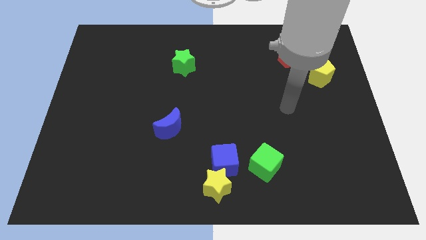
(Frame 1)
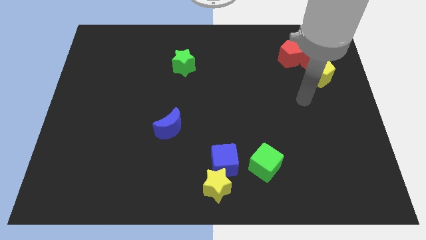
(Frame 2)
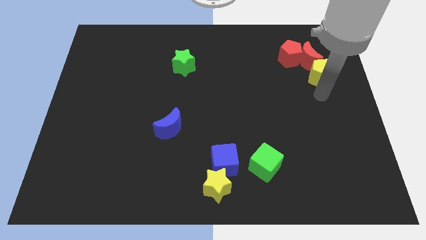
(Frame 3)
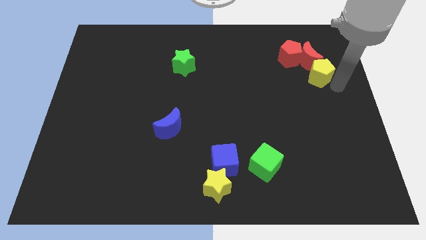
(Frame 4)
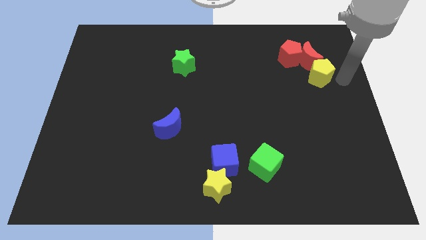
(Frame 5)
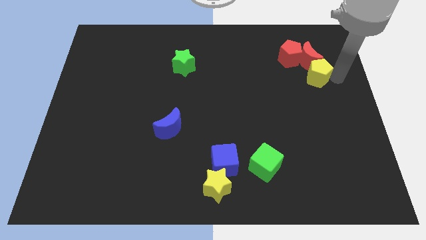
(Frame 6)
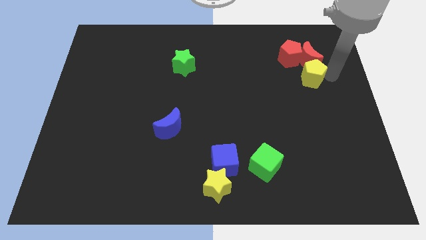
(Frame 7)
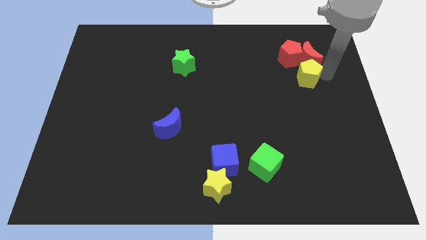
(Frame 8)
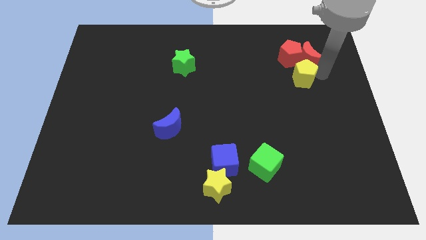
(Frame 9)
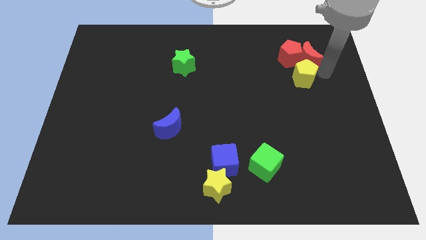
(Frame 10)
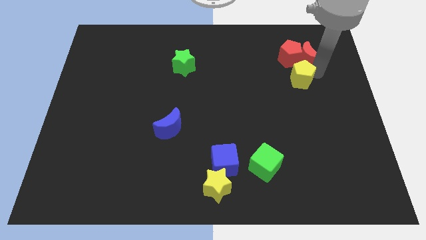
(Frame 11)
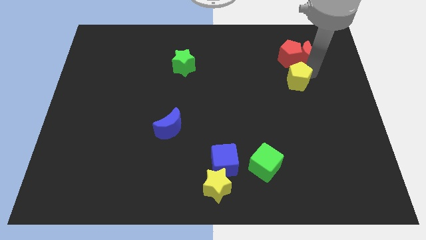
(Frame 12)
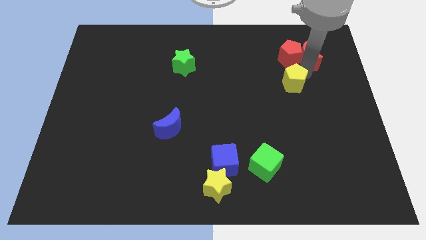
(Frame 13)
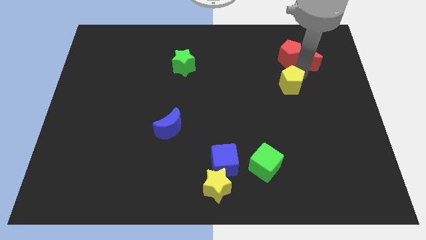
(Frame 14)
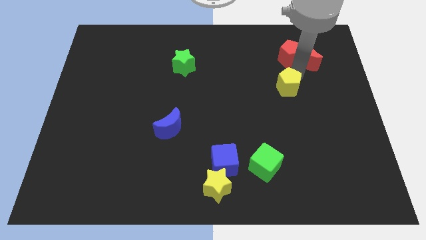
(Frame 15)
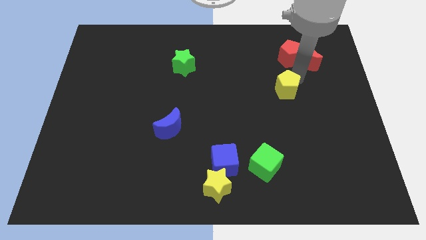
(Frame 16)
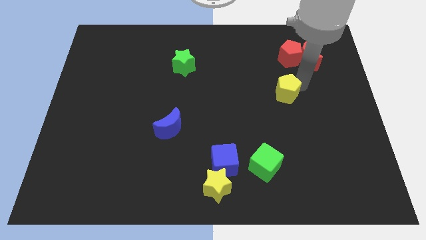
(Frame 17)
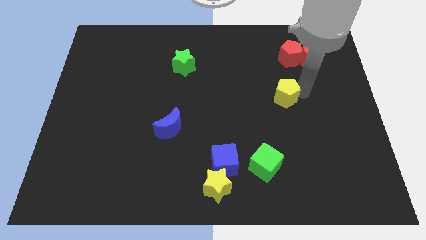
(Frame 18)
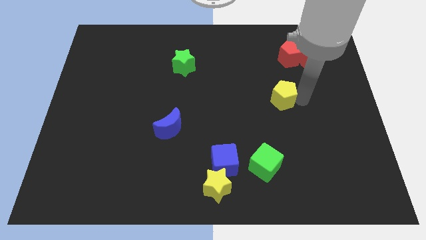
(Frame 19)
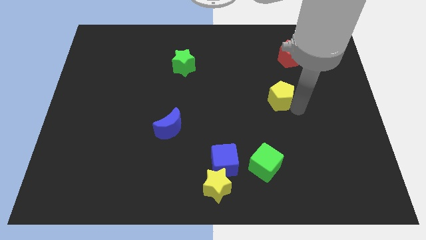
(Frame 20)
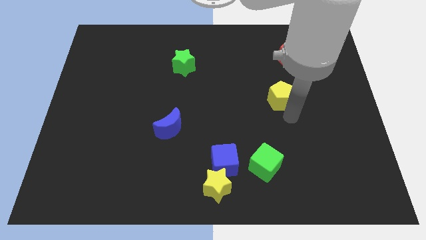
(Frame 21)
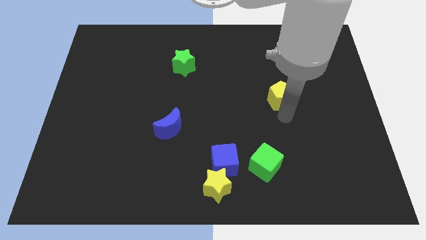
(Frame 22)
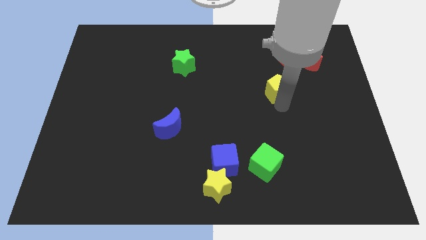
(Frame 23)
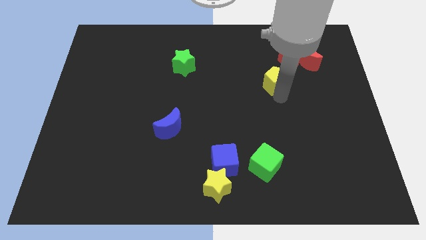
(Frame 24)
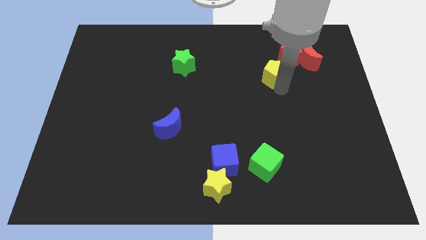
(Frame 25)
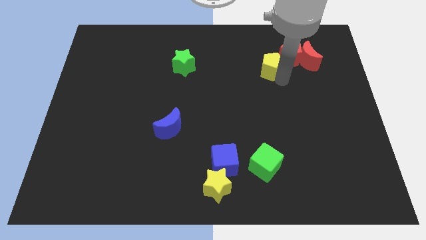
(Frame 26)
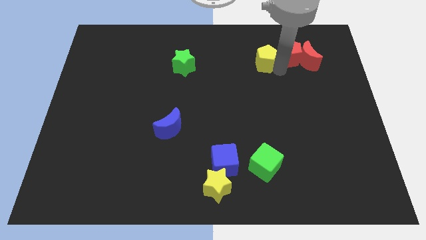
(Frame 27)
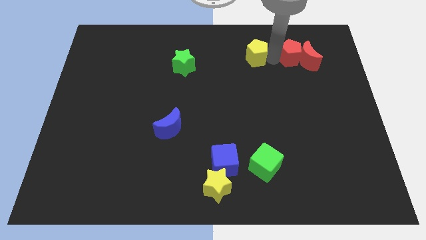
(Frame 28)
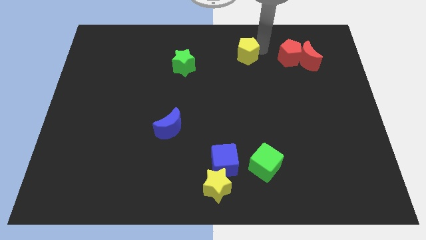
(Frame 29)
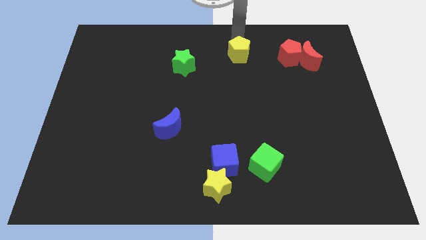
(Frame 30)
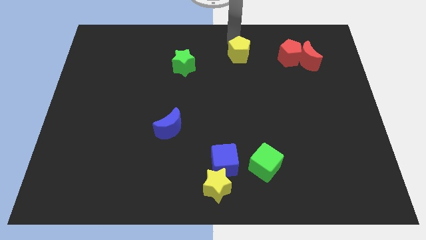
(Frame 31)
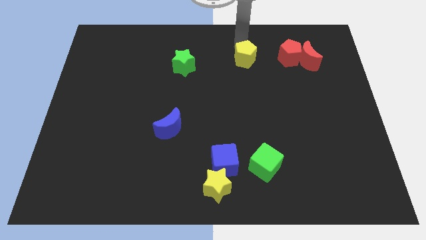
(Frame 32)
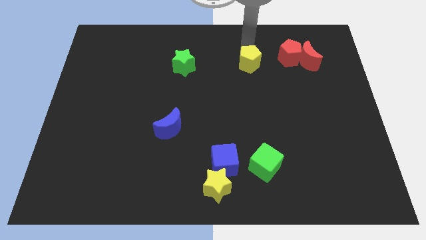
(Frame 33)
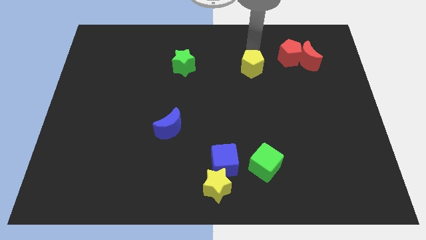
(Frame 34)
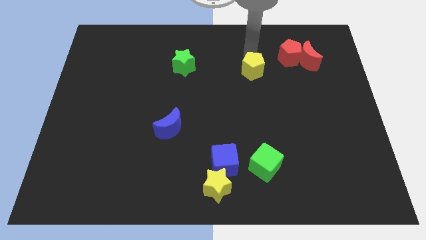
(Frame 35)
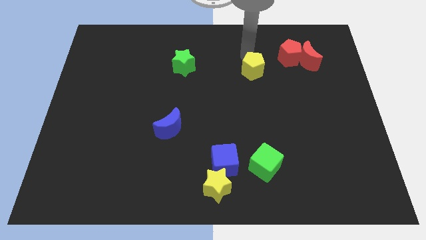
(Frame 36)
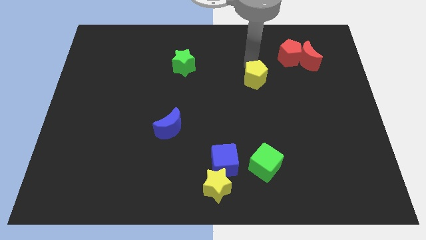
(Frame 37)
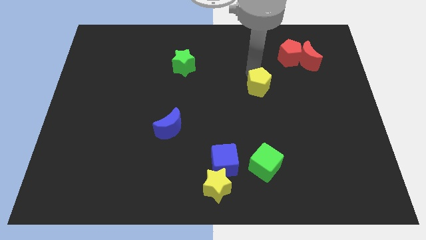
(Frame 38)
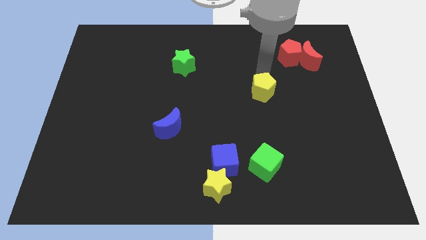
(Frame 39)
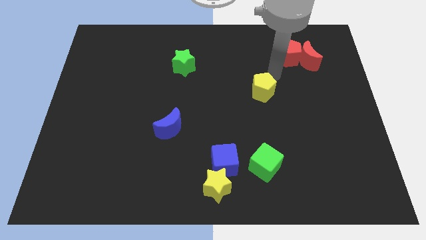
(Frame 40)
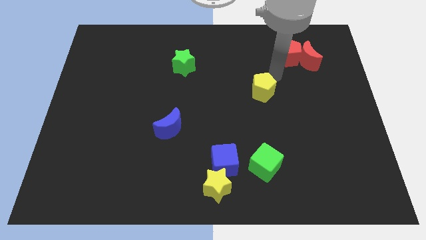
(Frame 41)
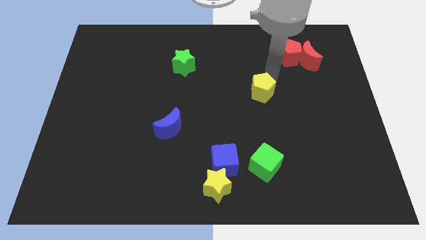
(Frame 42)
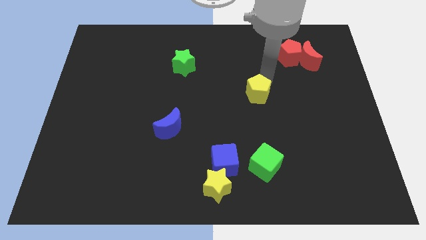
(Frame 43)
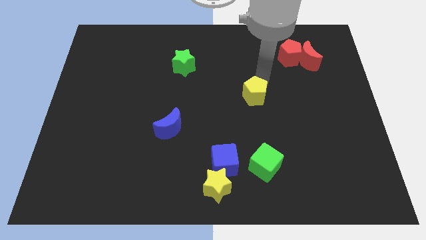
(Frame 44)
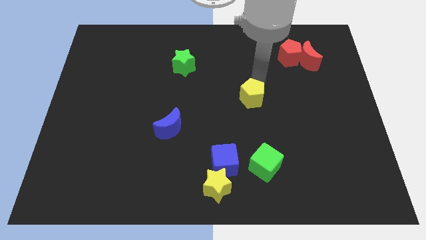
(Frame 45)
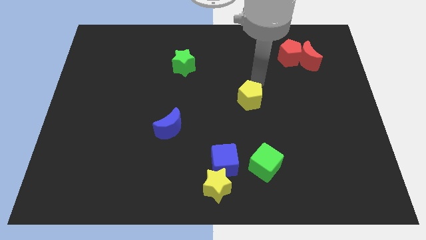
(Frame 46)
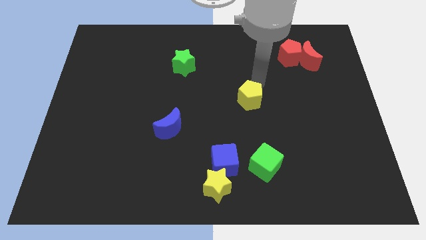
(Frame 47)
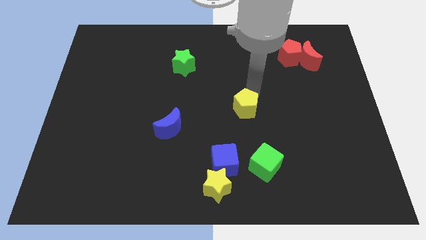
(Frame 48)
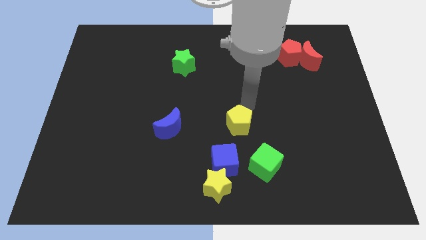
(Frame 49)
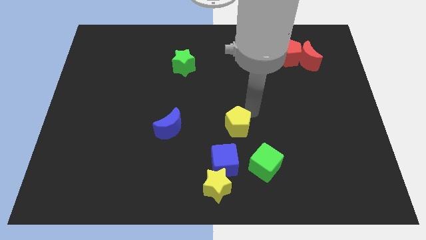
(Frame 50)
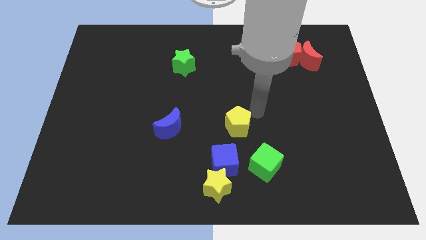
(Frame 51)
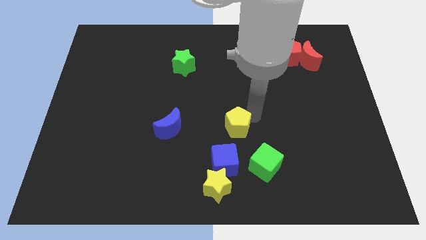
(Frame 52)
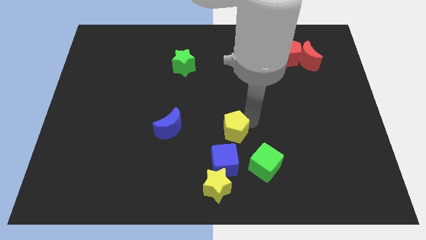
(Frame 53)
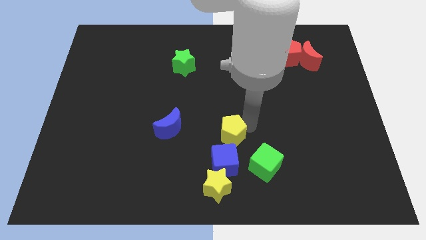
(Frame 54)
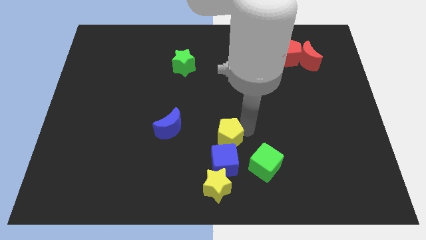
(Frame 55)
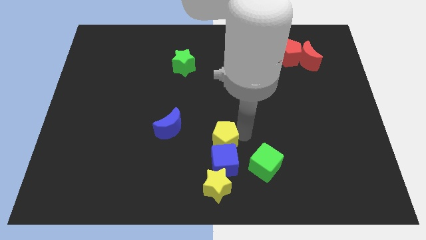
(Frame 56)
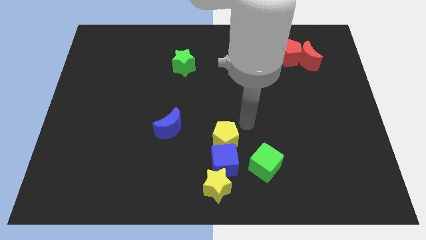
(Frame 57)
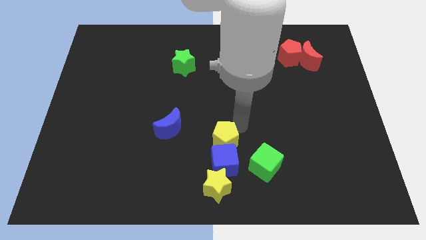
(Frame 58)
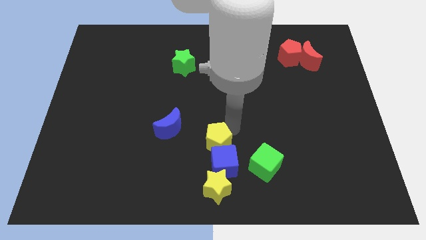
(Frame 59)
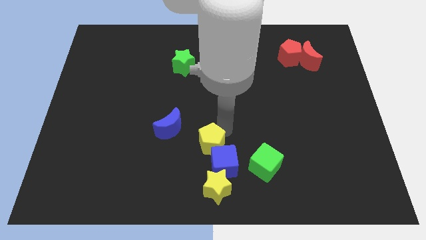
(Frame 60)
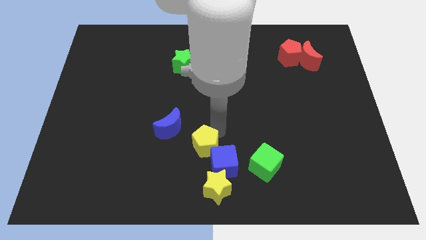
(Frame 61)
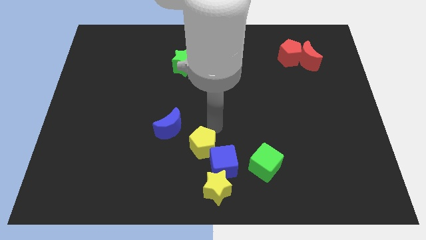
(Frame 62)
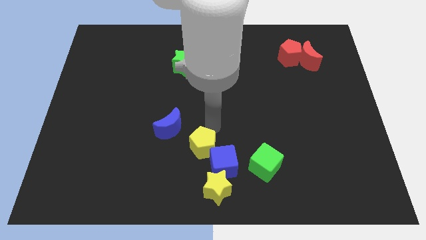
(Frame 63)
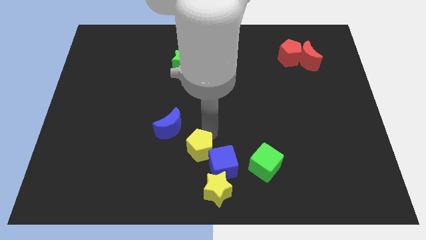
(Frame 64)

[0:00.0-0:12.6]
push the yellow pentagon to the top left side of the yellow star

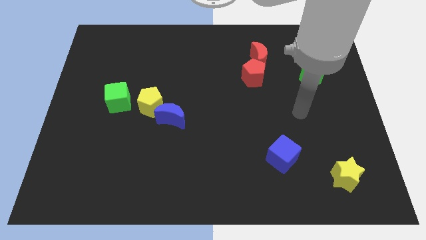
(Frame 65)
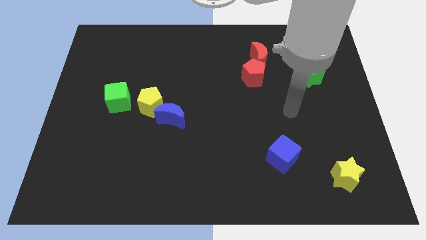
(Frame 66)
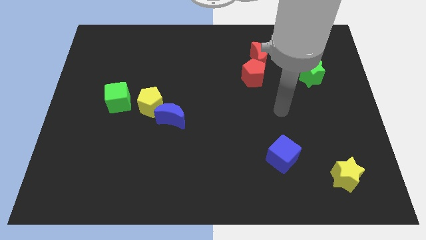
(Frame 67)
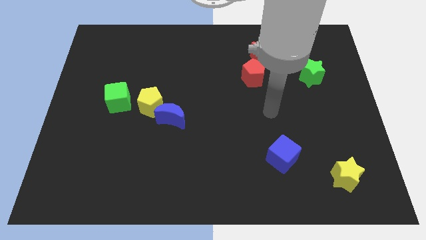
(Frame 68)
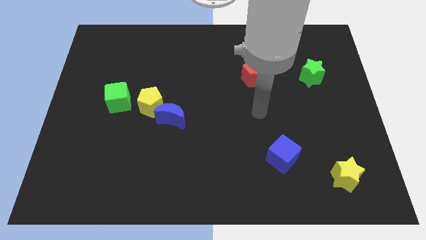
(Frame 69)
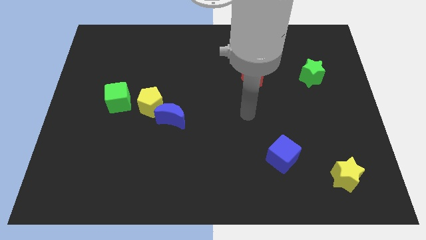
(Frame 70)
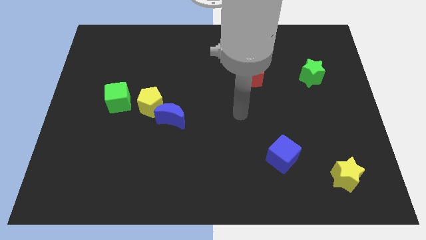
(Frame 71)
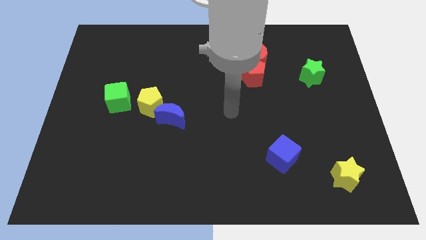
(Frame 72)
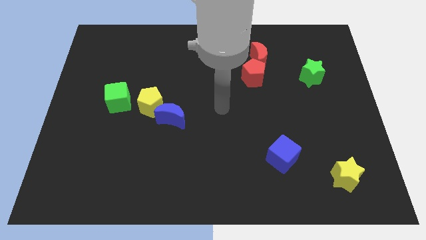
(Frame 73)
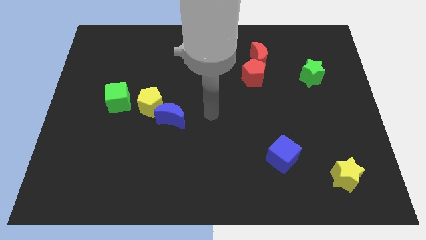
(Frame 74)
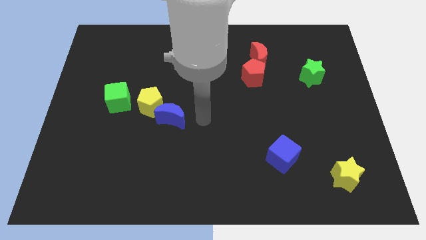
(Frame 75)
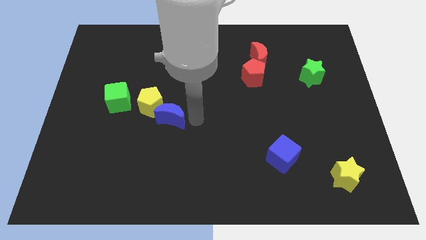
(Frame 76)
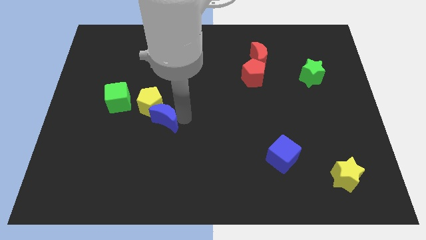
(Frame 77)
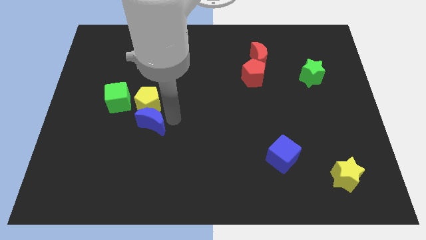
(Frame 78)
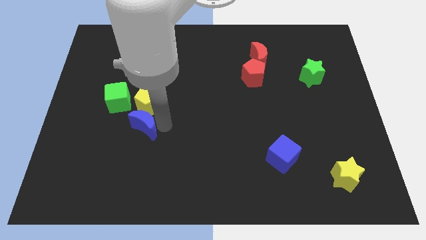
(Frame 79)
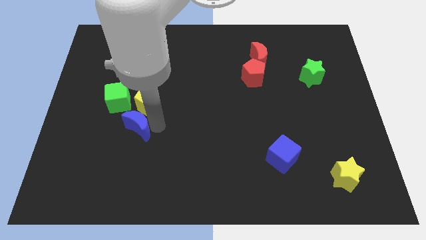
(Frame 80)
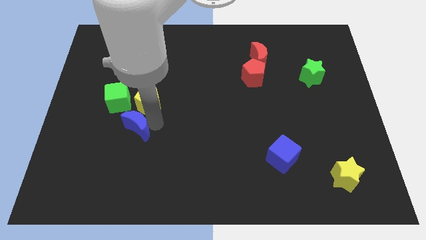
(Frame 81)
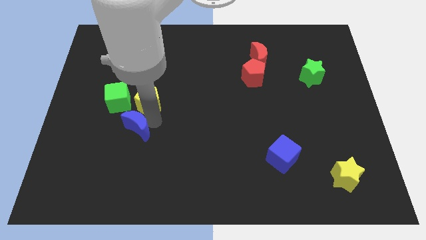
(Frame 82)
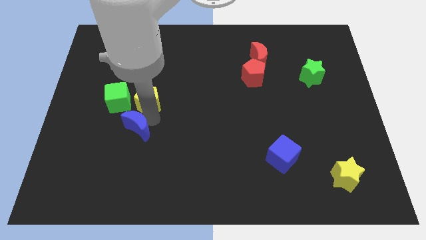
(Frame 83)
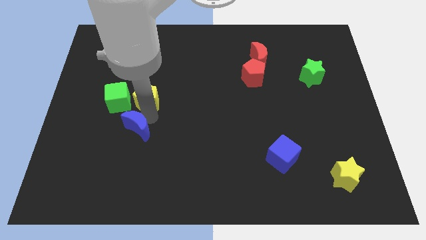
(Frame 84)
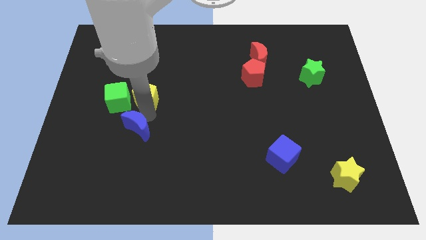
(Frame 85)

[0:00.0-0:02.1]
push the yellow pentagon to the top right of the green cube
